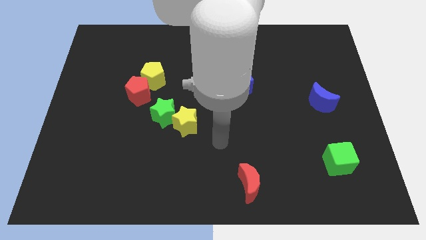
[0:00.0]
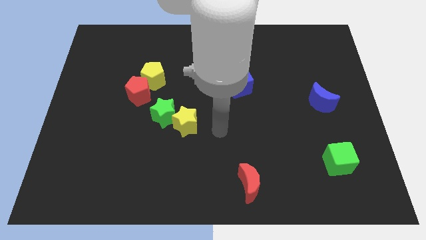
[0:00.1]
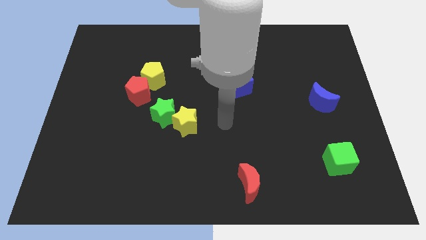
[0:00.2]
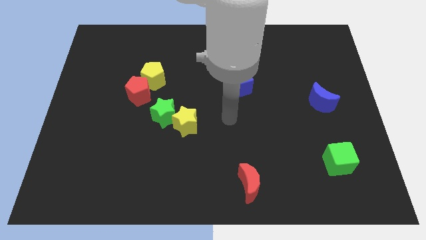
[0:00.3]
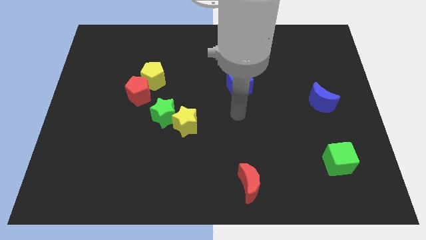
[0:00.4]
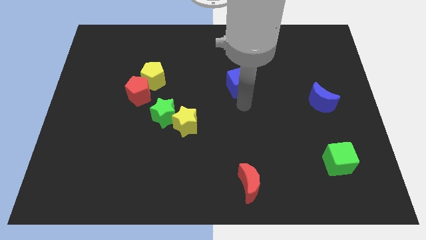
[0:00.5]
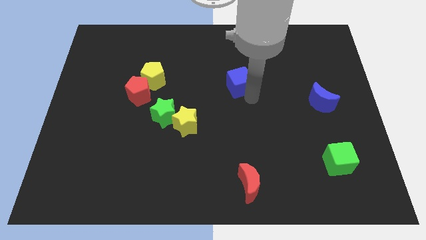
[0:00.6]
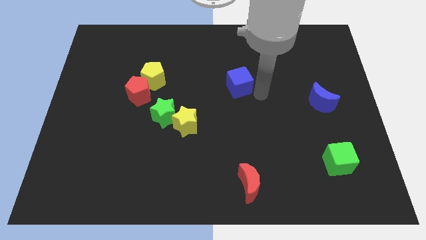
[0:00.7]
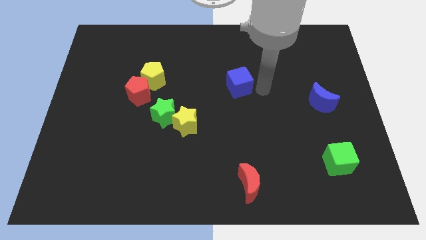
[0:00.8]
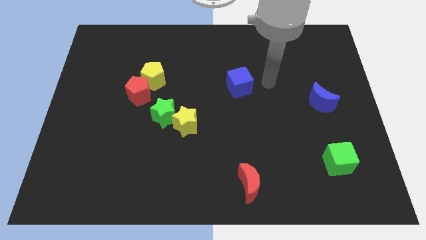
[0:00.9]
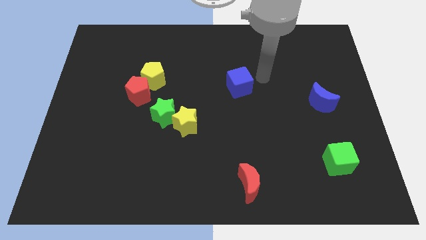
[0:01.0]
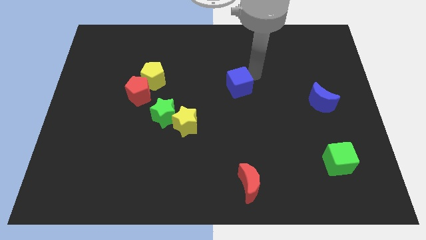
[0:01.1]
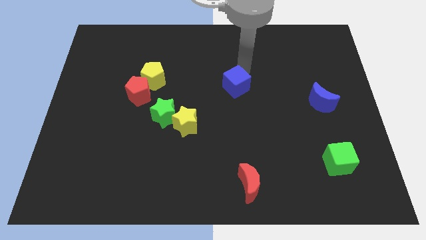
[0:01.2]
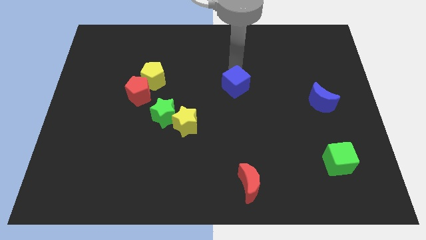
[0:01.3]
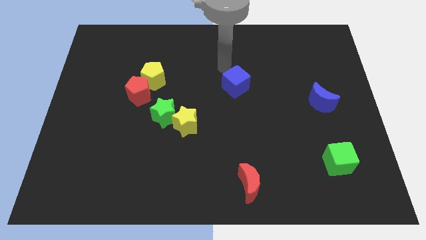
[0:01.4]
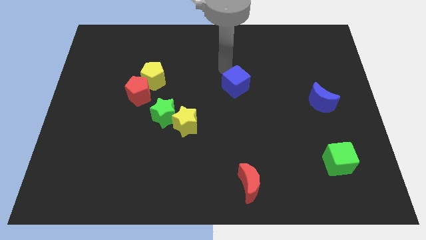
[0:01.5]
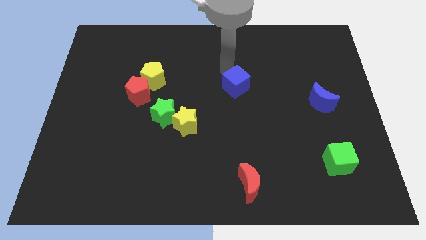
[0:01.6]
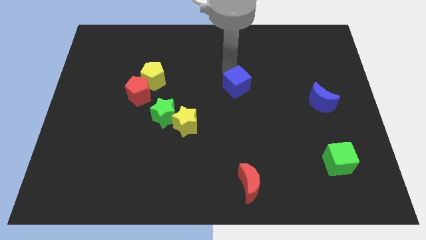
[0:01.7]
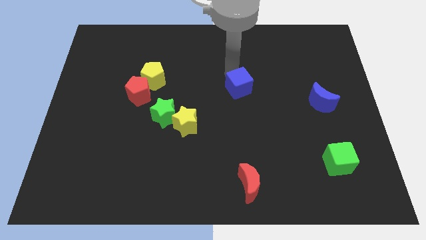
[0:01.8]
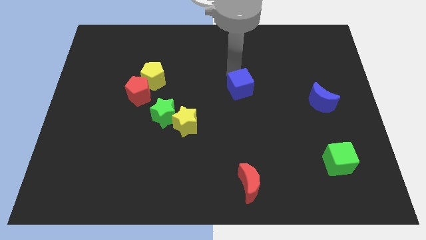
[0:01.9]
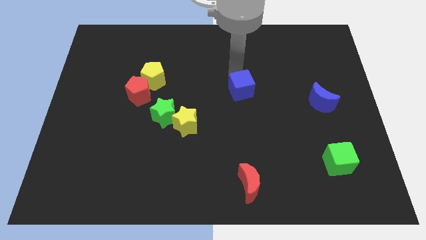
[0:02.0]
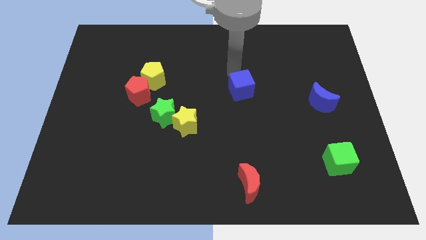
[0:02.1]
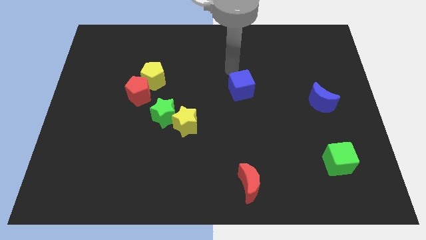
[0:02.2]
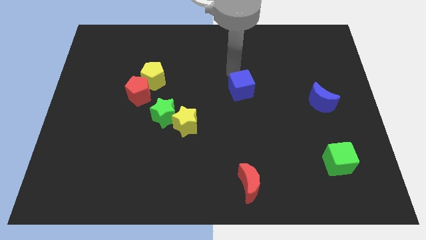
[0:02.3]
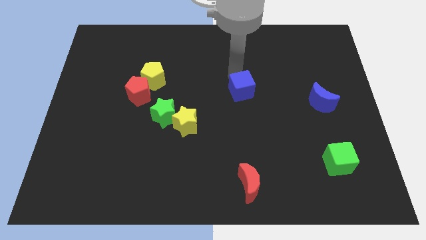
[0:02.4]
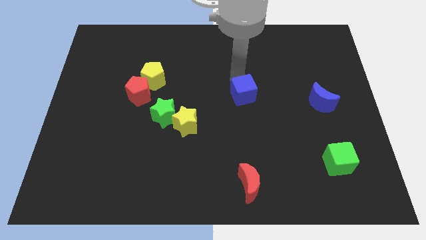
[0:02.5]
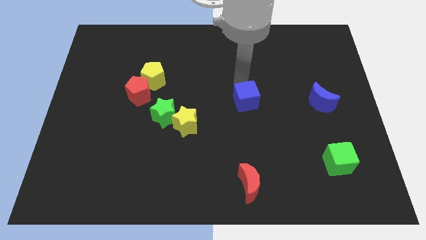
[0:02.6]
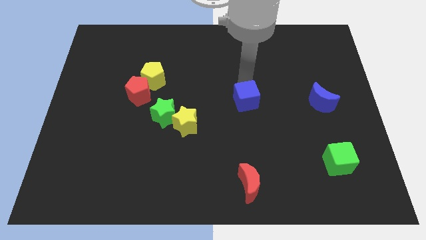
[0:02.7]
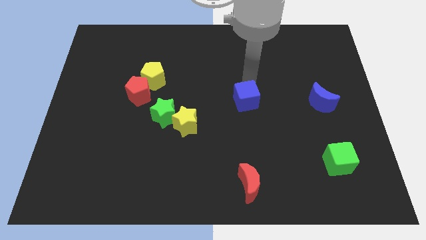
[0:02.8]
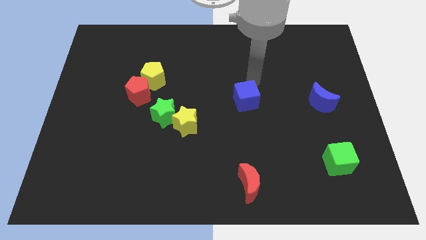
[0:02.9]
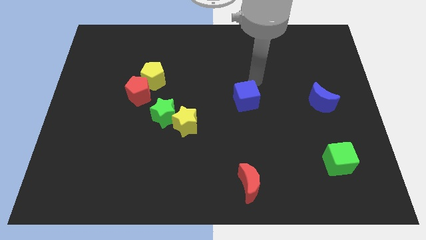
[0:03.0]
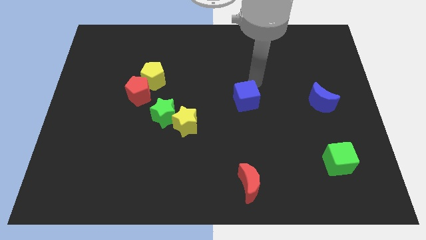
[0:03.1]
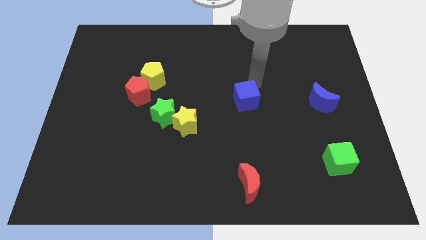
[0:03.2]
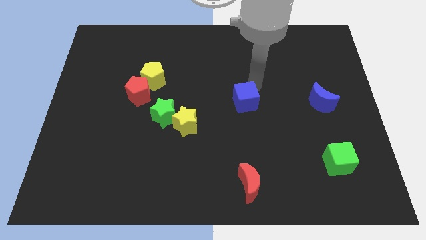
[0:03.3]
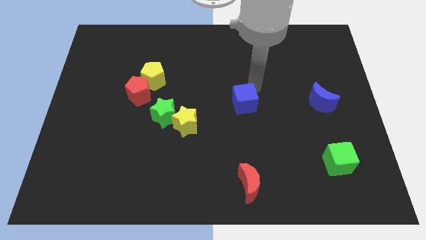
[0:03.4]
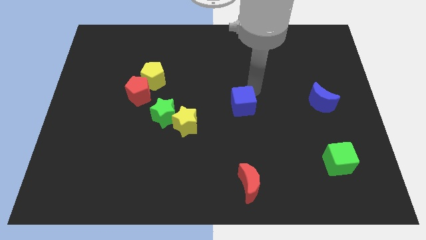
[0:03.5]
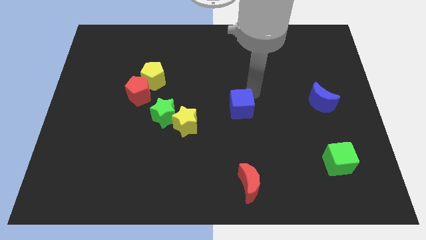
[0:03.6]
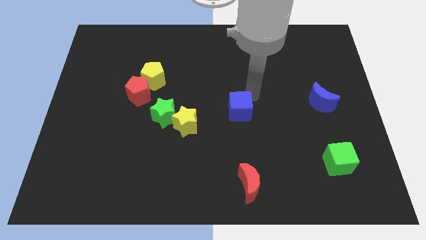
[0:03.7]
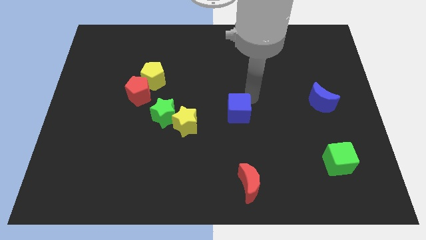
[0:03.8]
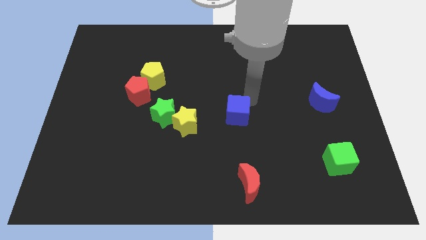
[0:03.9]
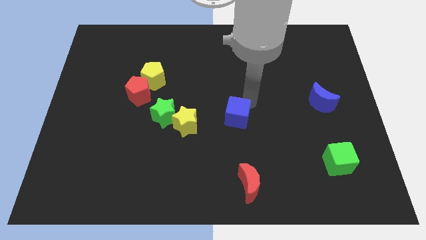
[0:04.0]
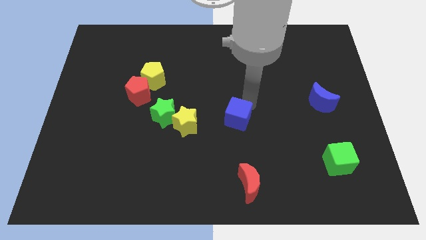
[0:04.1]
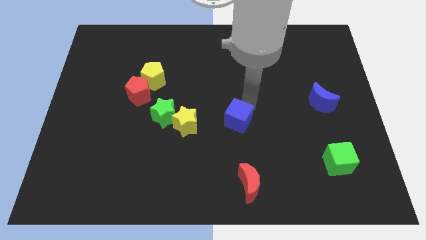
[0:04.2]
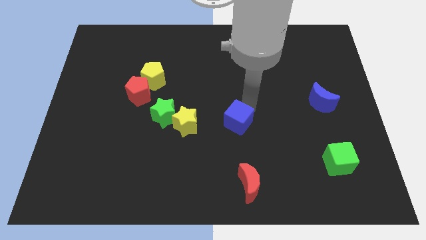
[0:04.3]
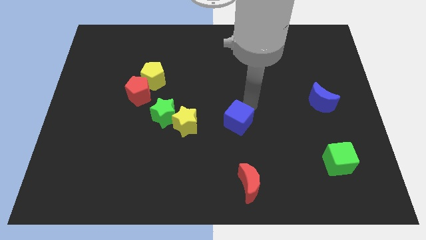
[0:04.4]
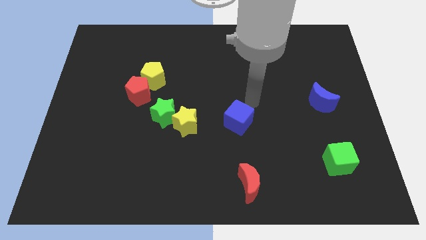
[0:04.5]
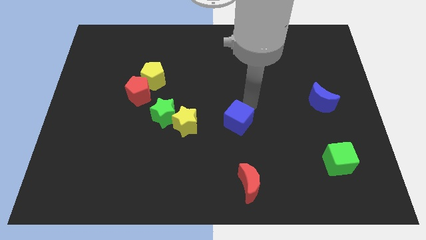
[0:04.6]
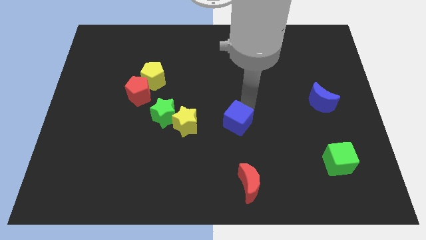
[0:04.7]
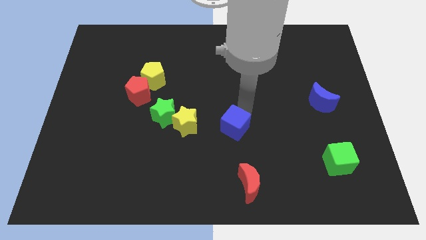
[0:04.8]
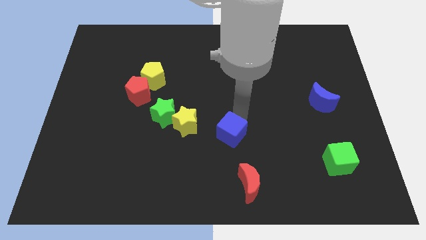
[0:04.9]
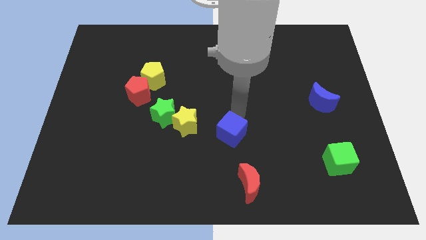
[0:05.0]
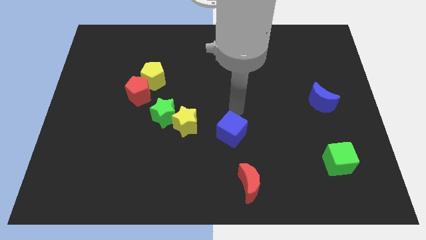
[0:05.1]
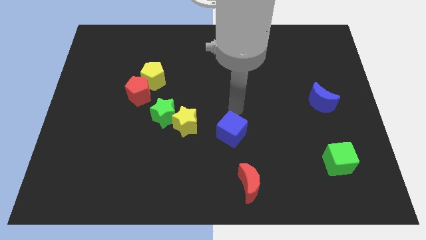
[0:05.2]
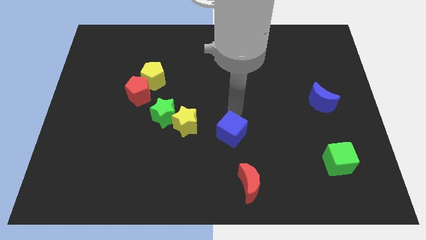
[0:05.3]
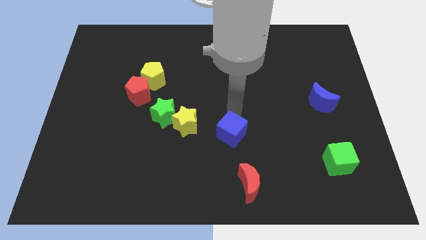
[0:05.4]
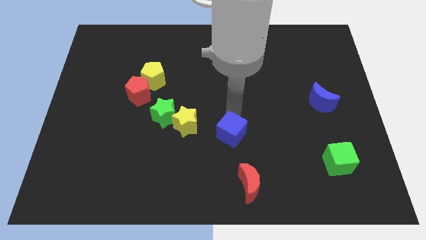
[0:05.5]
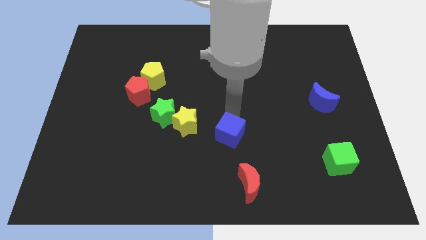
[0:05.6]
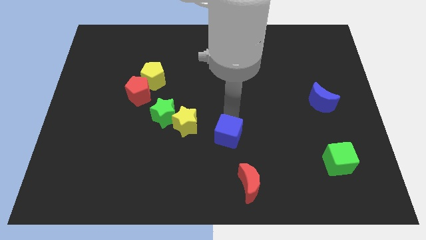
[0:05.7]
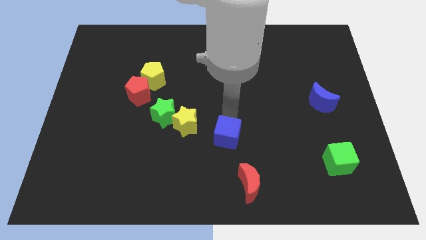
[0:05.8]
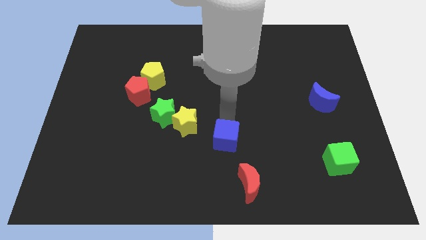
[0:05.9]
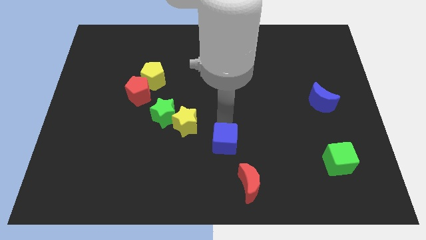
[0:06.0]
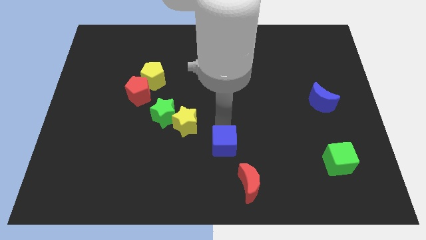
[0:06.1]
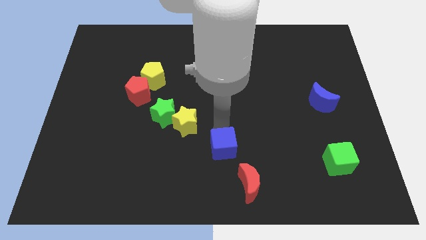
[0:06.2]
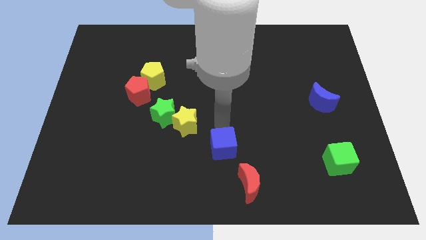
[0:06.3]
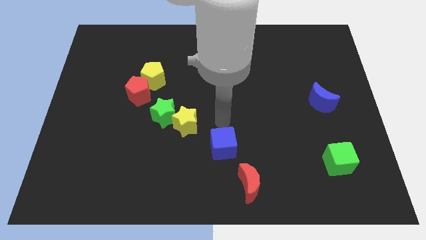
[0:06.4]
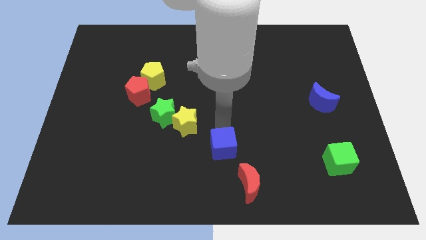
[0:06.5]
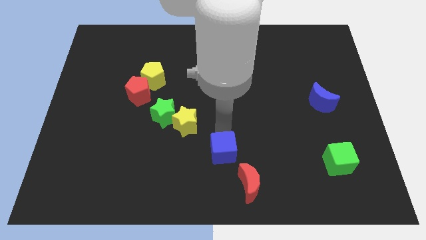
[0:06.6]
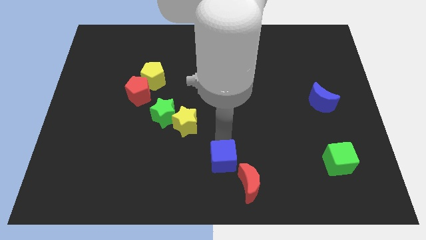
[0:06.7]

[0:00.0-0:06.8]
move the blue cube to the bottom side
